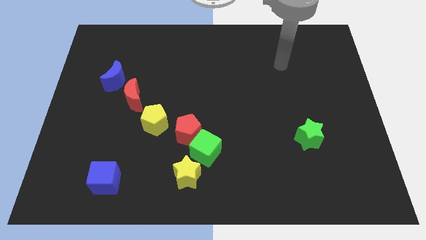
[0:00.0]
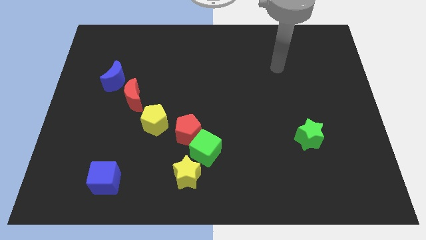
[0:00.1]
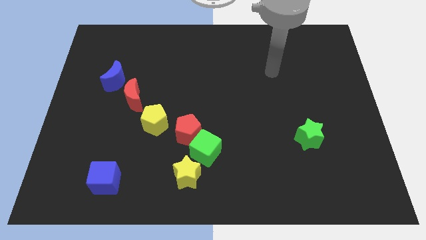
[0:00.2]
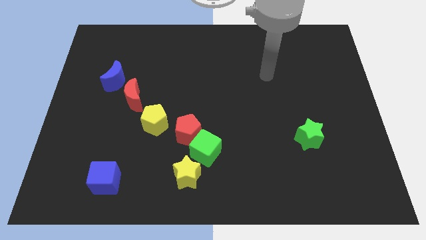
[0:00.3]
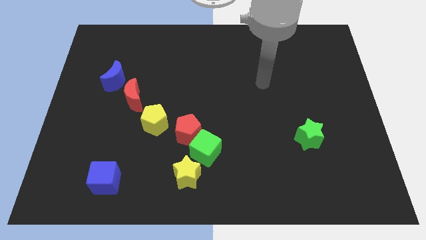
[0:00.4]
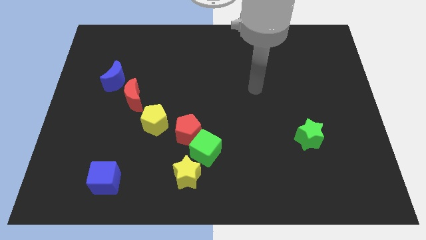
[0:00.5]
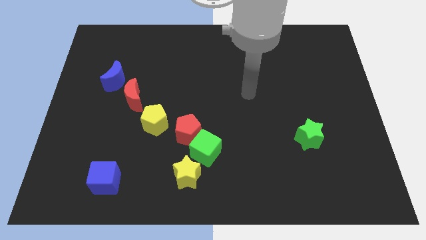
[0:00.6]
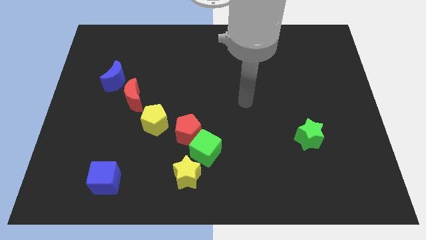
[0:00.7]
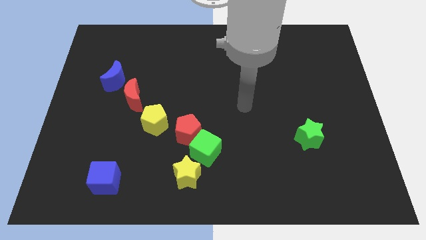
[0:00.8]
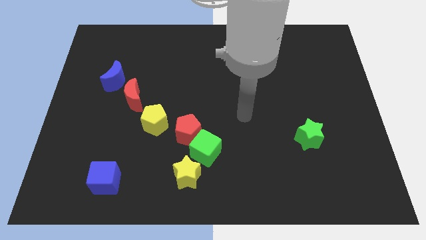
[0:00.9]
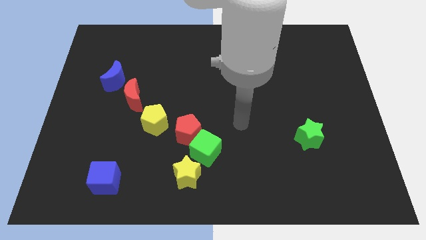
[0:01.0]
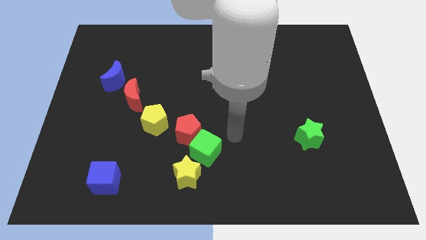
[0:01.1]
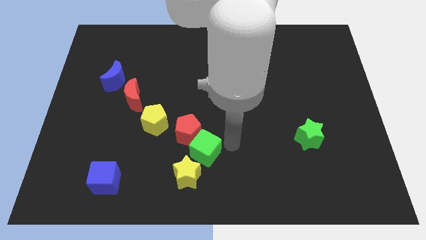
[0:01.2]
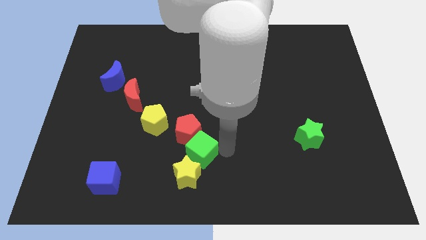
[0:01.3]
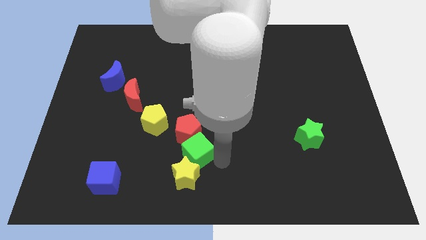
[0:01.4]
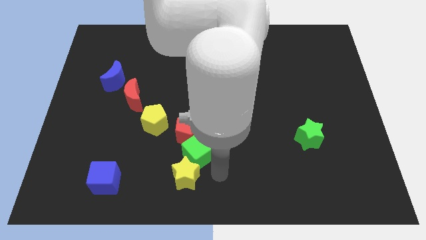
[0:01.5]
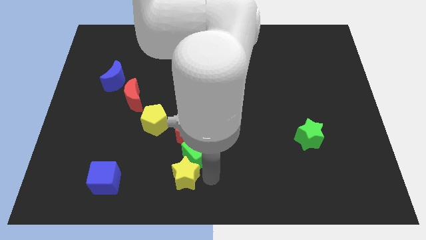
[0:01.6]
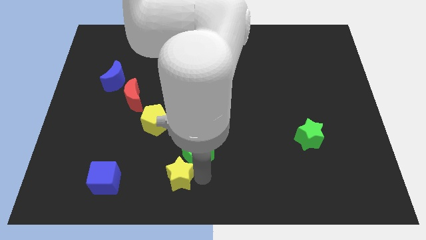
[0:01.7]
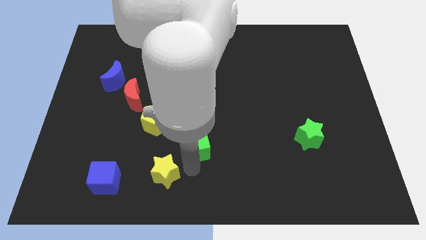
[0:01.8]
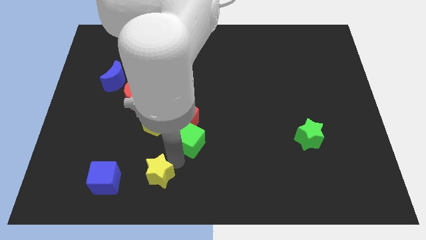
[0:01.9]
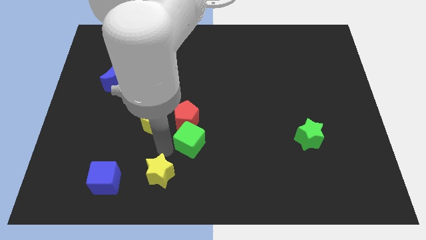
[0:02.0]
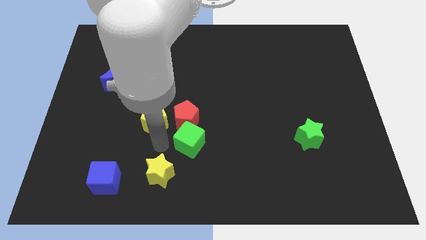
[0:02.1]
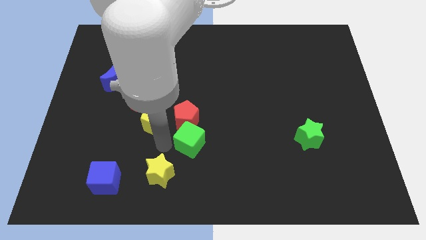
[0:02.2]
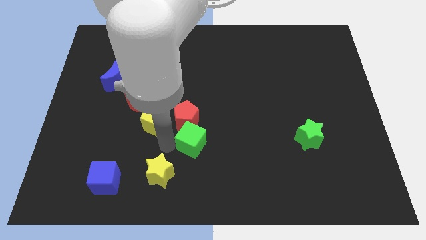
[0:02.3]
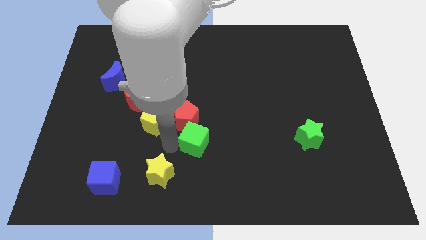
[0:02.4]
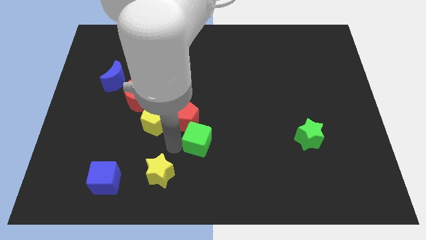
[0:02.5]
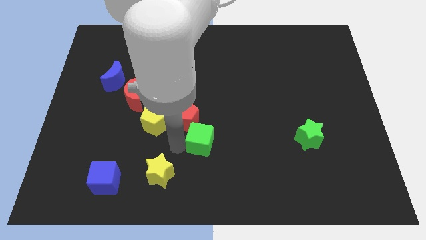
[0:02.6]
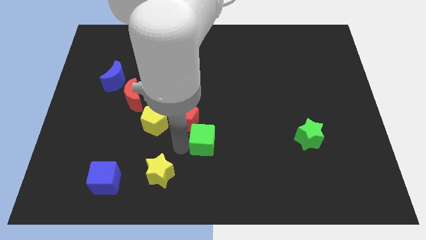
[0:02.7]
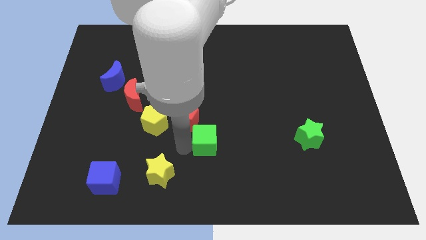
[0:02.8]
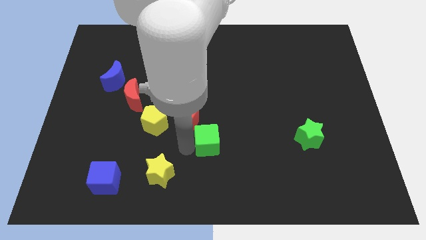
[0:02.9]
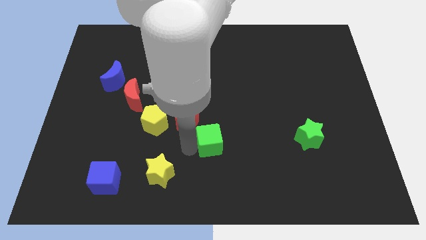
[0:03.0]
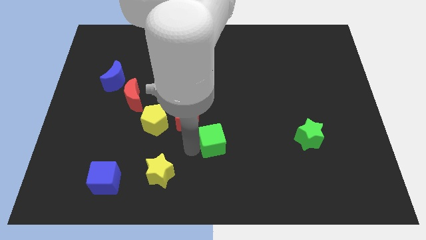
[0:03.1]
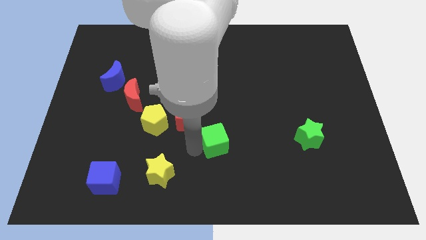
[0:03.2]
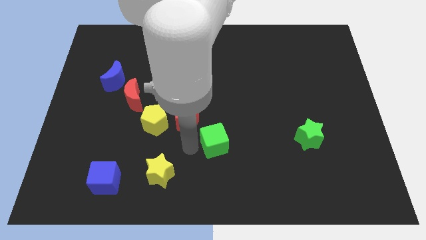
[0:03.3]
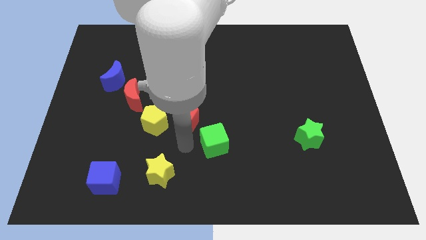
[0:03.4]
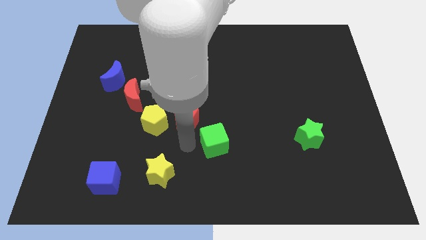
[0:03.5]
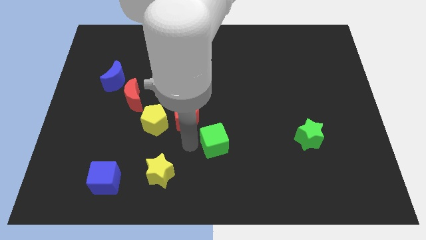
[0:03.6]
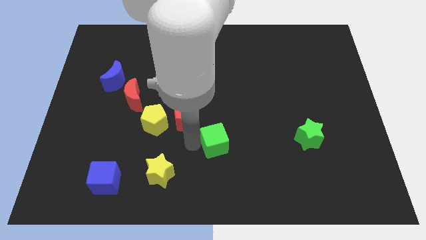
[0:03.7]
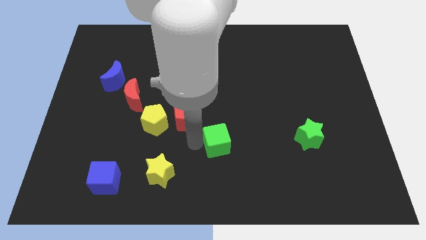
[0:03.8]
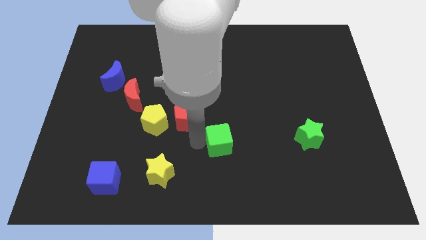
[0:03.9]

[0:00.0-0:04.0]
separate the green cube from the red pentagon and yellow star

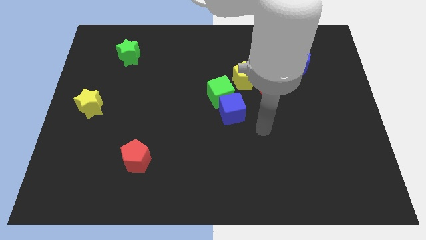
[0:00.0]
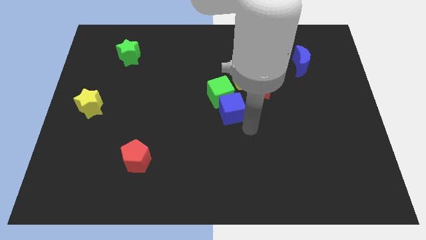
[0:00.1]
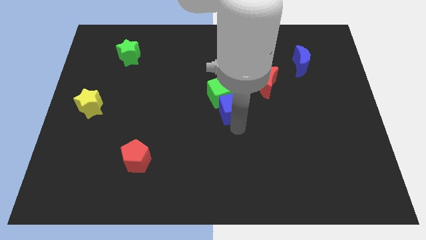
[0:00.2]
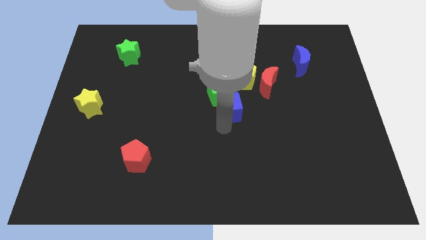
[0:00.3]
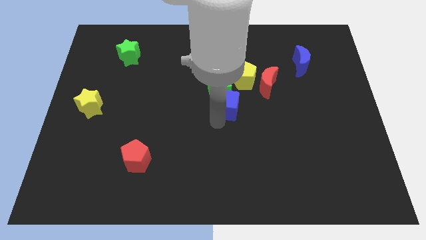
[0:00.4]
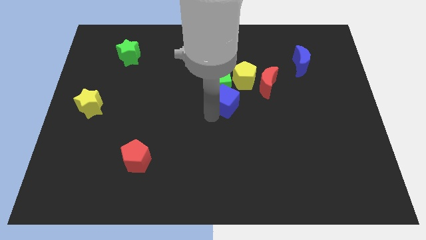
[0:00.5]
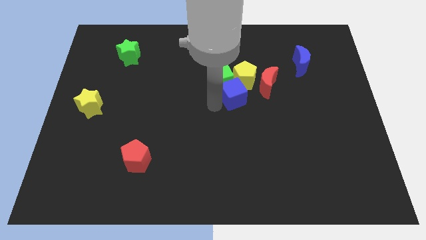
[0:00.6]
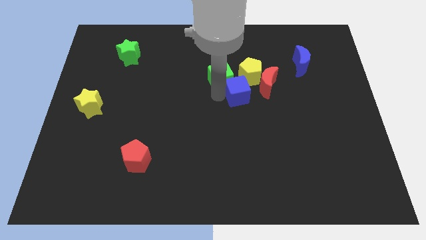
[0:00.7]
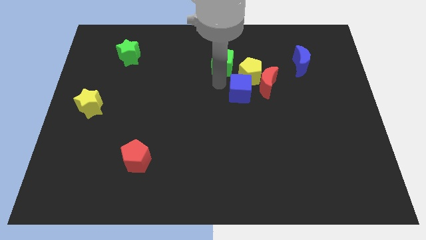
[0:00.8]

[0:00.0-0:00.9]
move the blue cube away from the green cube

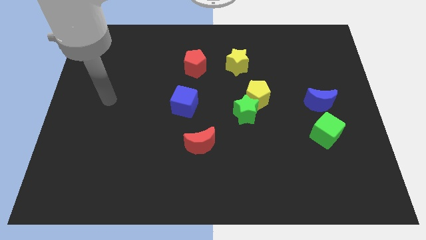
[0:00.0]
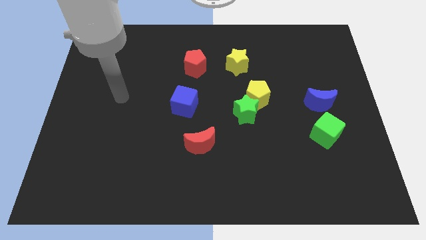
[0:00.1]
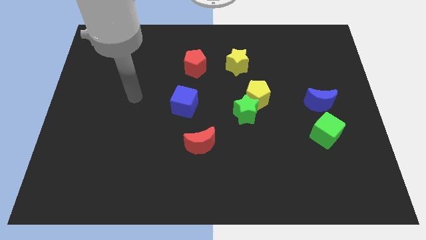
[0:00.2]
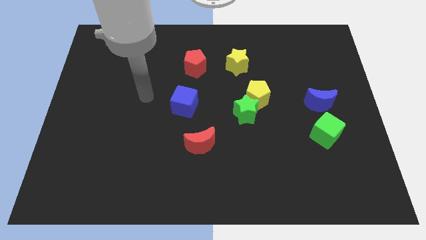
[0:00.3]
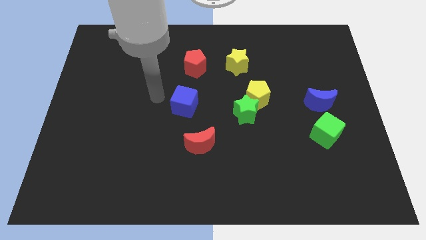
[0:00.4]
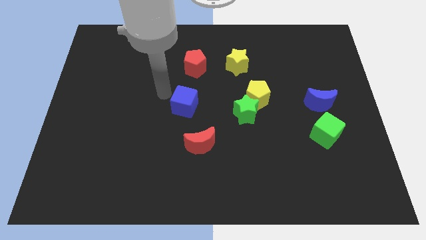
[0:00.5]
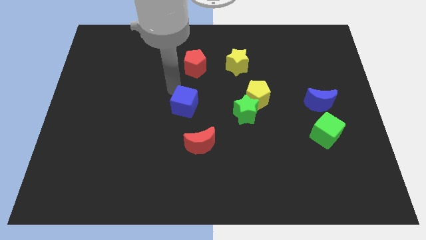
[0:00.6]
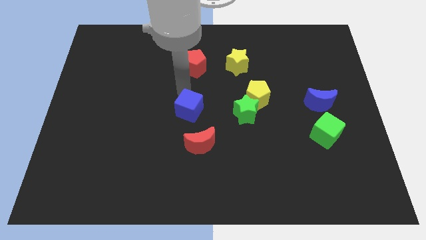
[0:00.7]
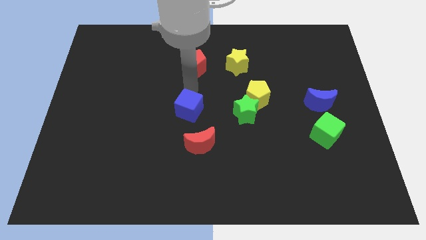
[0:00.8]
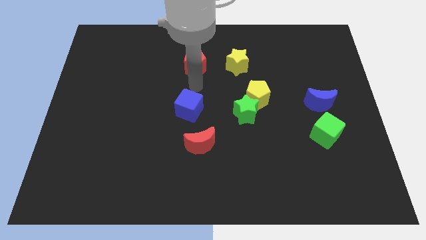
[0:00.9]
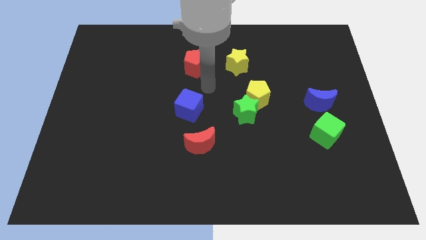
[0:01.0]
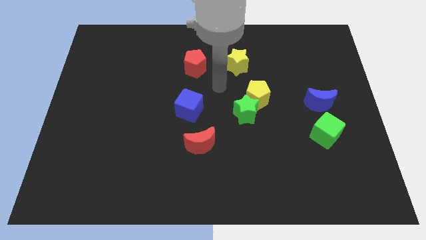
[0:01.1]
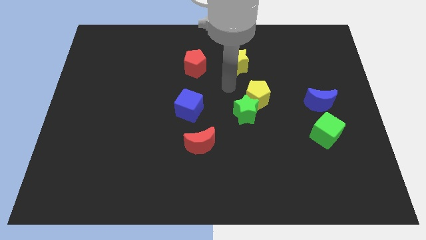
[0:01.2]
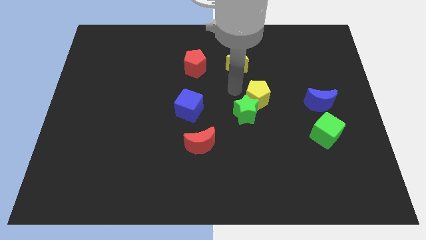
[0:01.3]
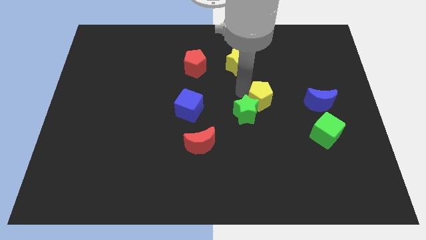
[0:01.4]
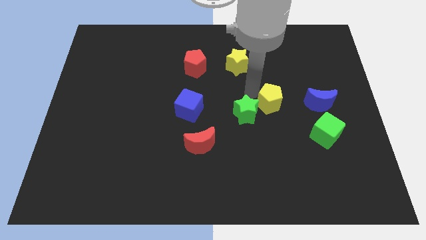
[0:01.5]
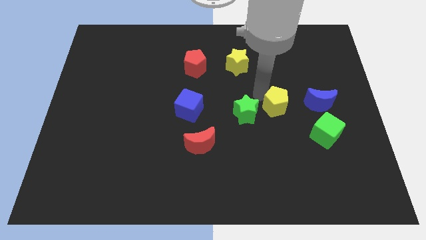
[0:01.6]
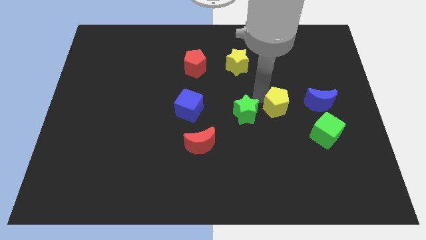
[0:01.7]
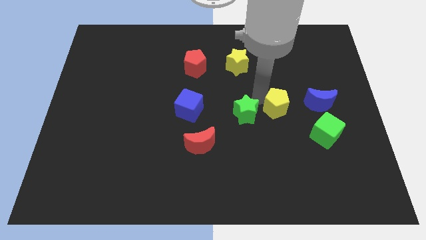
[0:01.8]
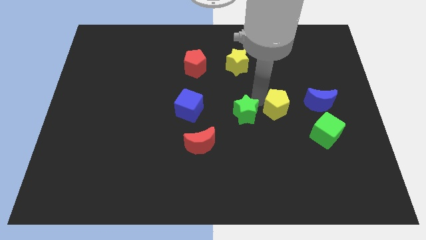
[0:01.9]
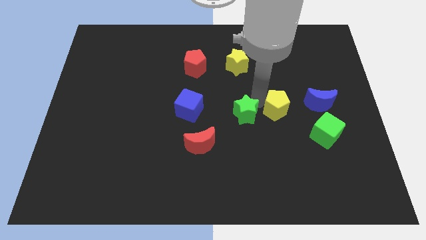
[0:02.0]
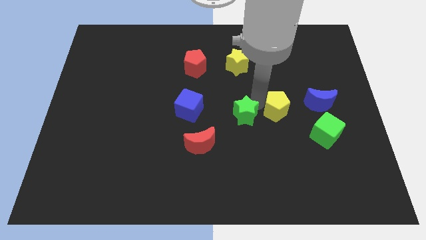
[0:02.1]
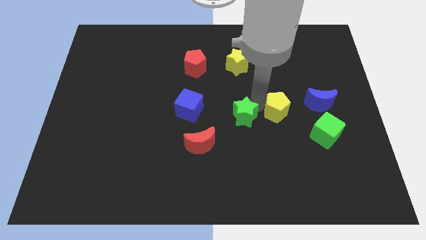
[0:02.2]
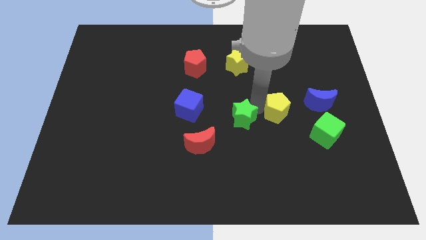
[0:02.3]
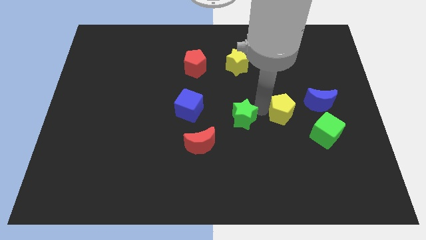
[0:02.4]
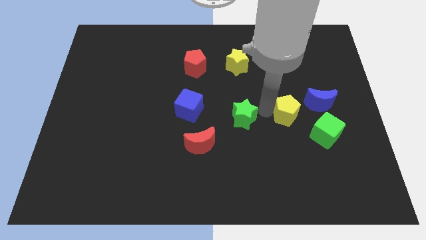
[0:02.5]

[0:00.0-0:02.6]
move the green star away from the yellow pentagon

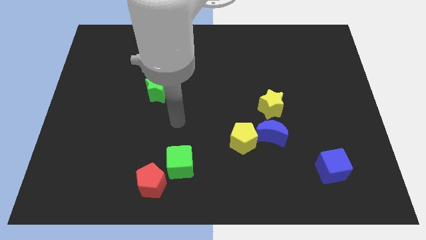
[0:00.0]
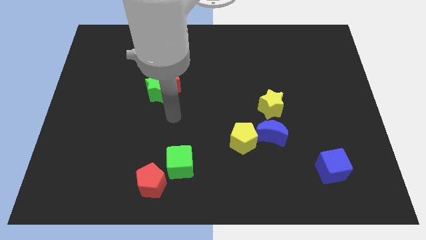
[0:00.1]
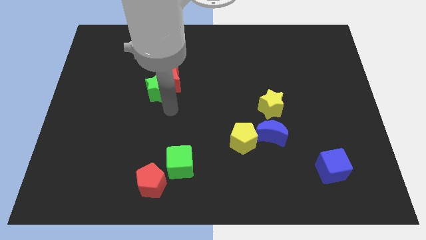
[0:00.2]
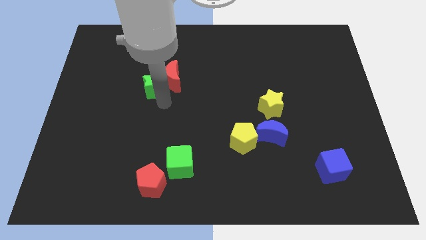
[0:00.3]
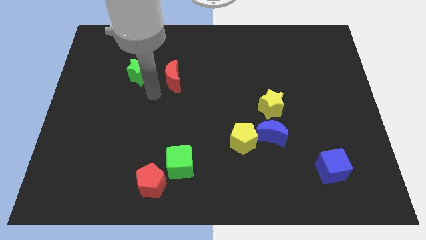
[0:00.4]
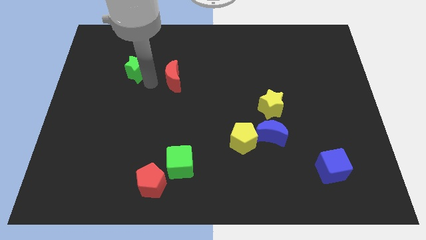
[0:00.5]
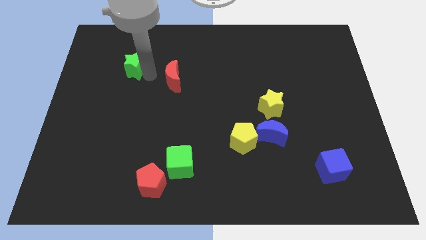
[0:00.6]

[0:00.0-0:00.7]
separate the red moon from the green star

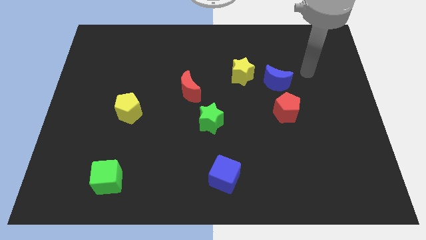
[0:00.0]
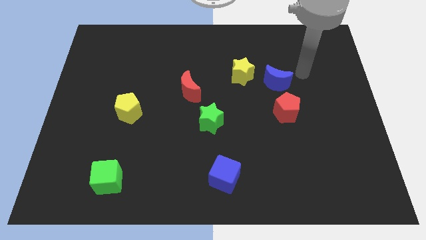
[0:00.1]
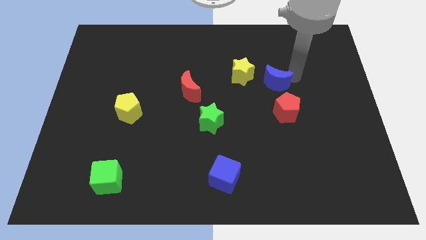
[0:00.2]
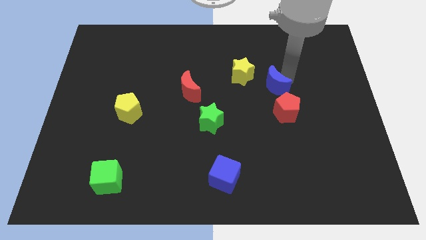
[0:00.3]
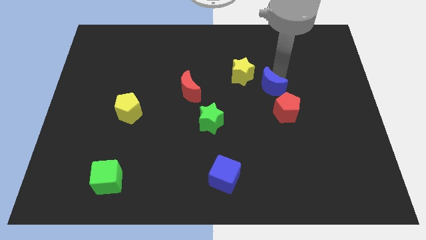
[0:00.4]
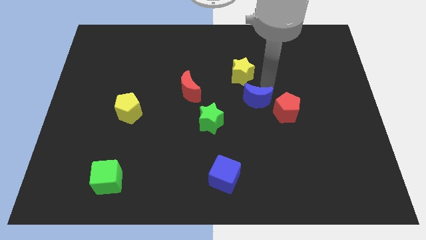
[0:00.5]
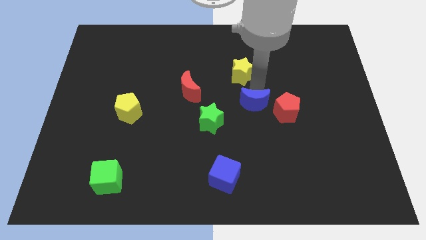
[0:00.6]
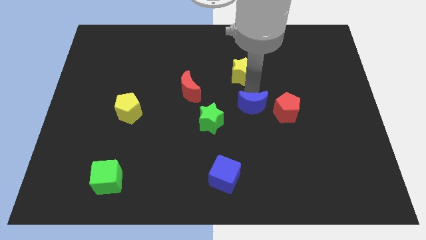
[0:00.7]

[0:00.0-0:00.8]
move the yellow star away from the blue moon

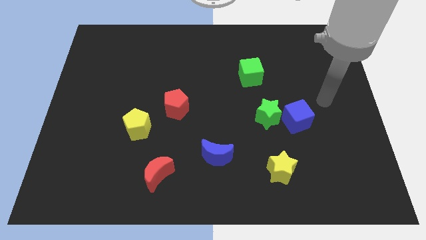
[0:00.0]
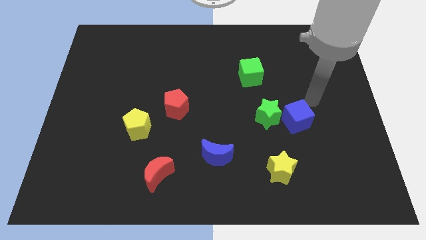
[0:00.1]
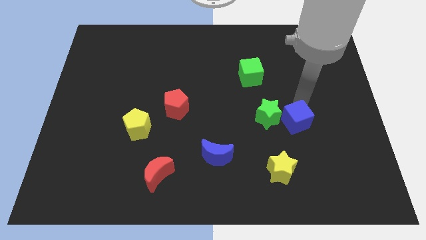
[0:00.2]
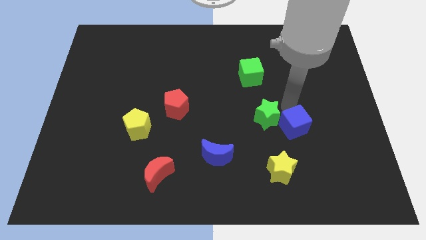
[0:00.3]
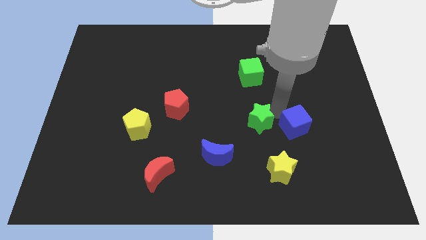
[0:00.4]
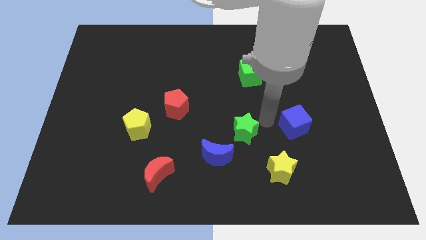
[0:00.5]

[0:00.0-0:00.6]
pull the blue cube apart from the green star
